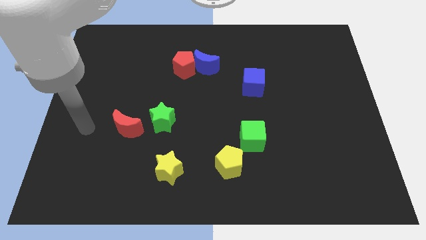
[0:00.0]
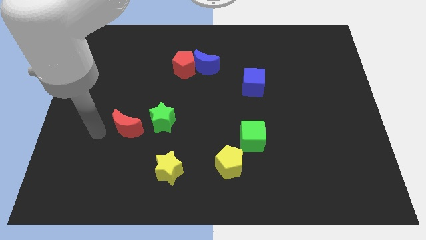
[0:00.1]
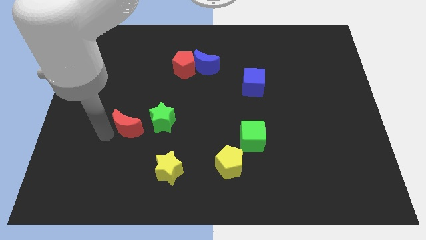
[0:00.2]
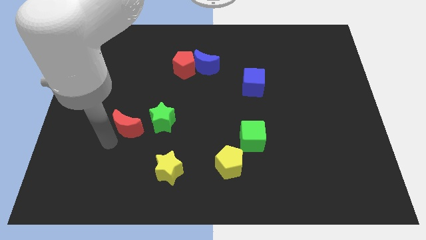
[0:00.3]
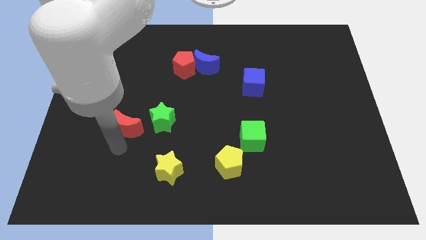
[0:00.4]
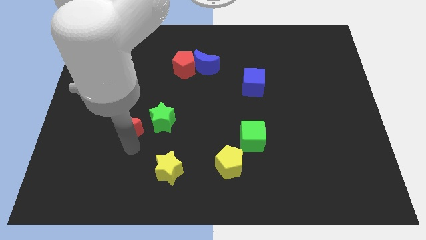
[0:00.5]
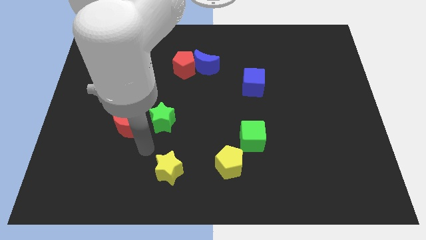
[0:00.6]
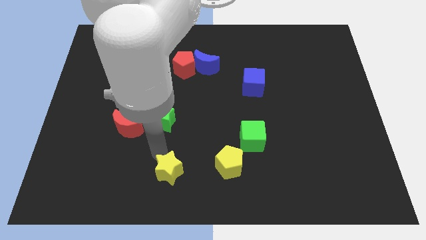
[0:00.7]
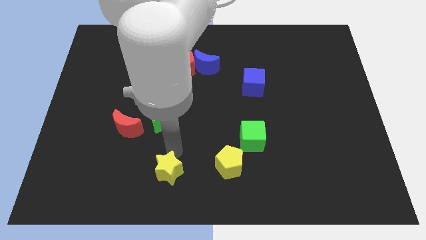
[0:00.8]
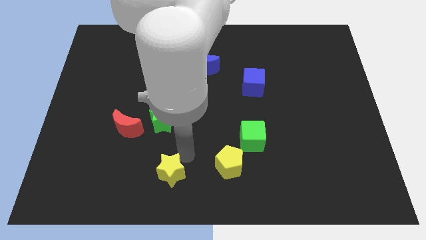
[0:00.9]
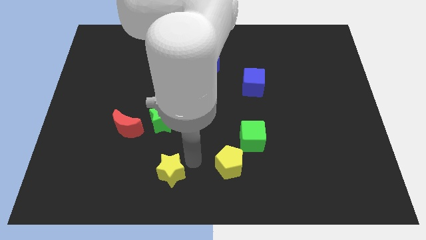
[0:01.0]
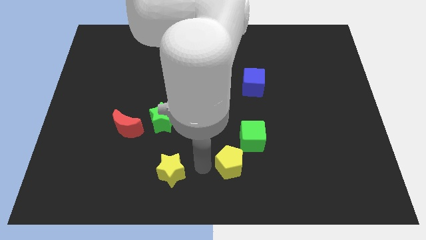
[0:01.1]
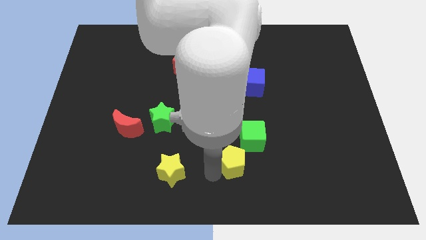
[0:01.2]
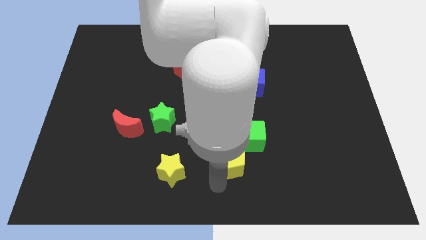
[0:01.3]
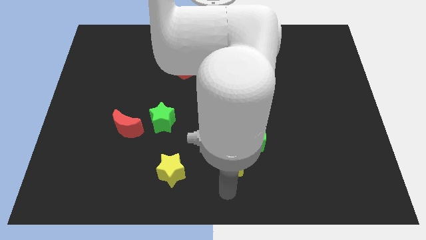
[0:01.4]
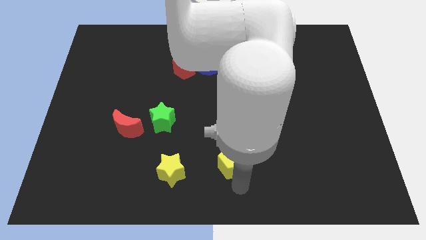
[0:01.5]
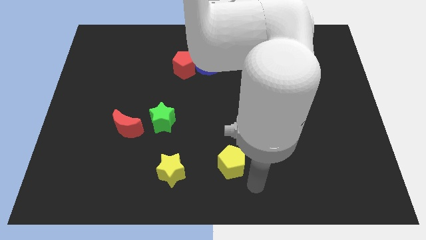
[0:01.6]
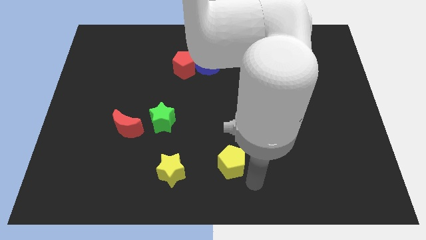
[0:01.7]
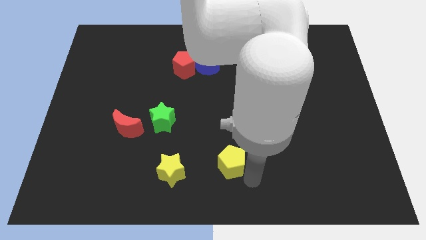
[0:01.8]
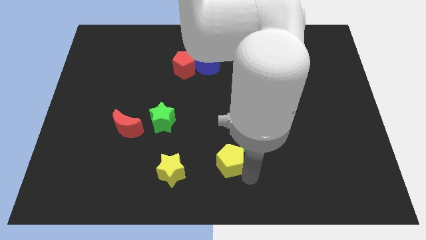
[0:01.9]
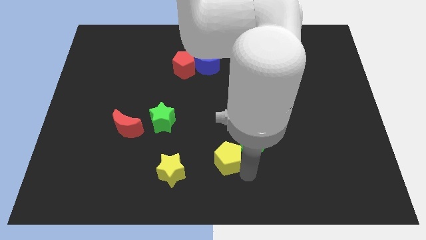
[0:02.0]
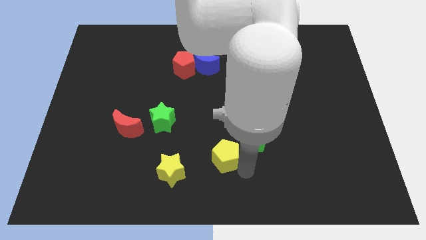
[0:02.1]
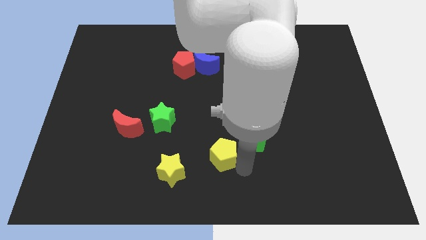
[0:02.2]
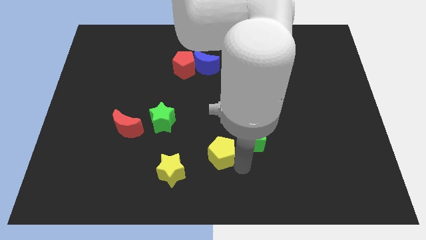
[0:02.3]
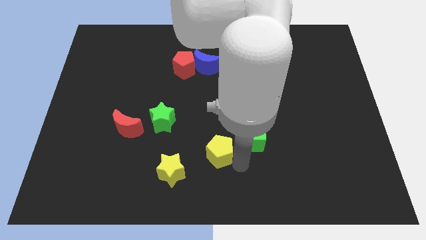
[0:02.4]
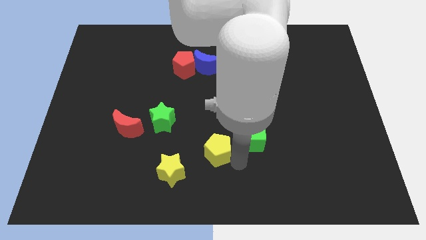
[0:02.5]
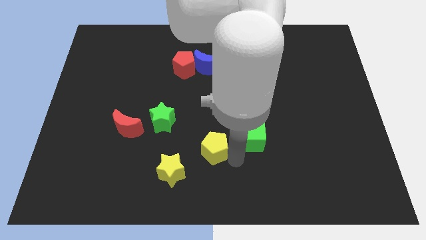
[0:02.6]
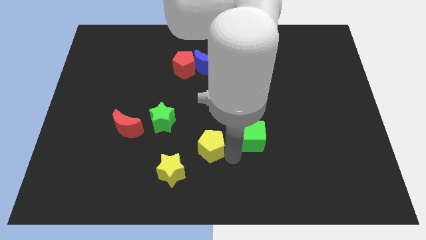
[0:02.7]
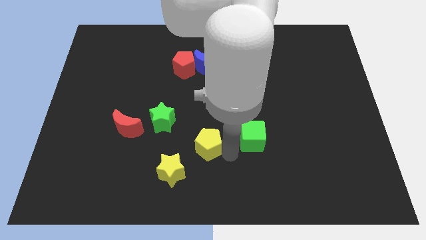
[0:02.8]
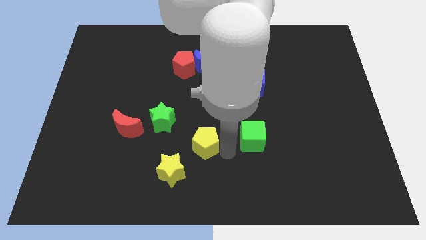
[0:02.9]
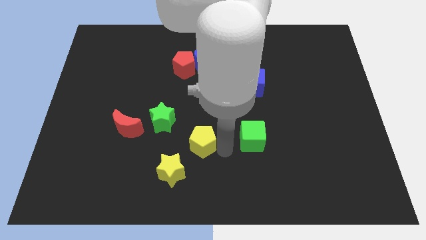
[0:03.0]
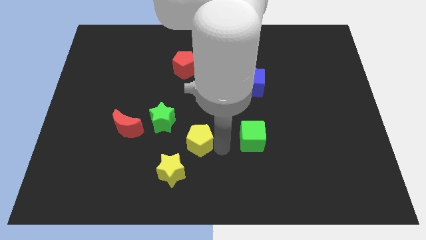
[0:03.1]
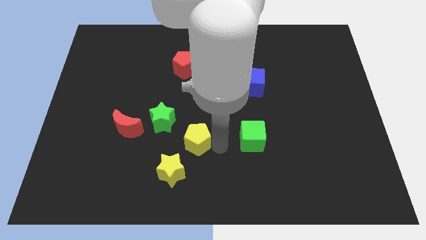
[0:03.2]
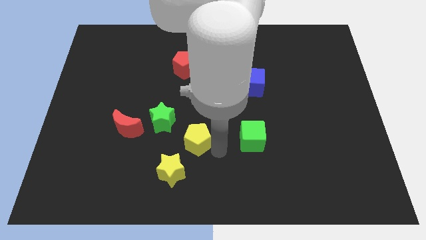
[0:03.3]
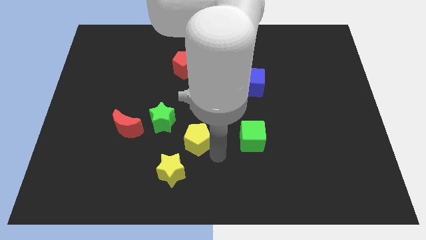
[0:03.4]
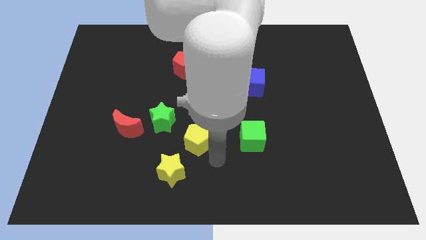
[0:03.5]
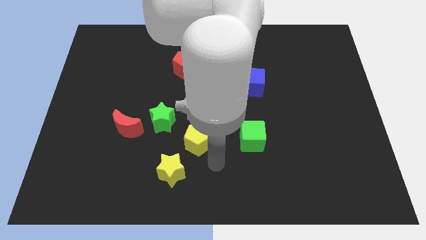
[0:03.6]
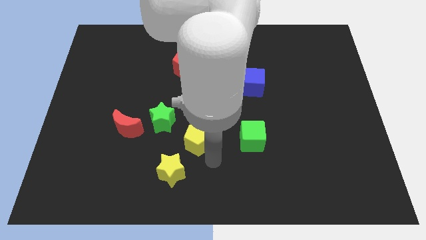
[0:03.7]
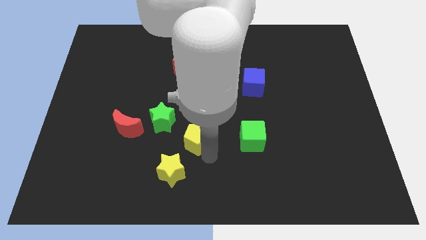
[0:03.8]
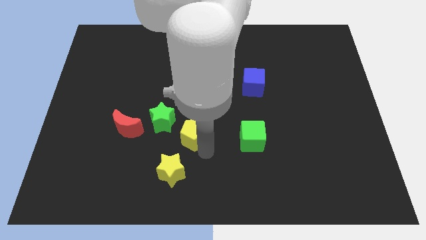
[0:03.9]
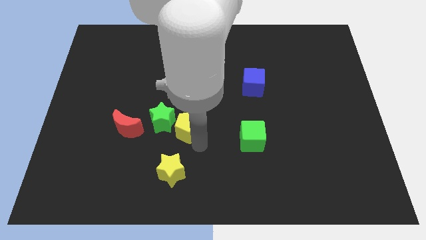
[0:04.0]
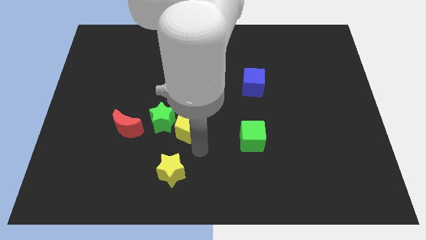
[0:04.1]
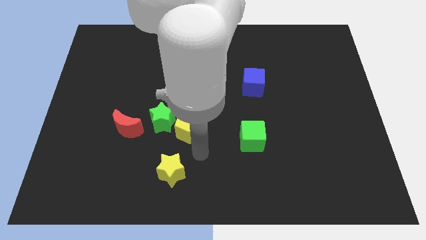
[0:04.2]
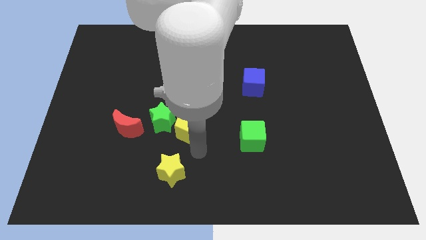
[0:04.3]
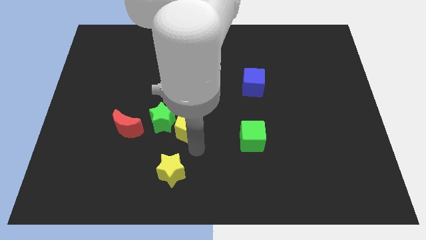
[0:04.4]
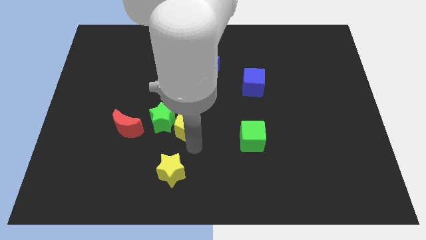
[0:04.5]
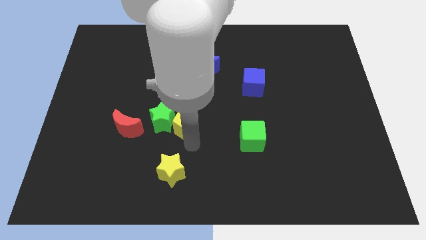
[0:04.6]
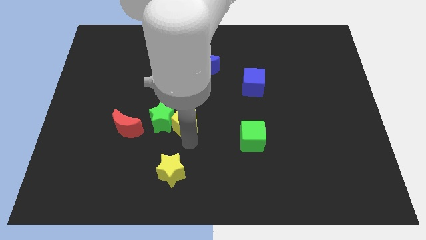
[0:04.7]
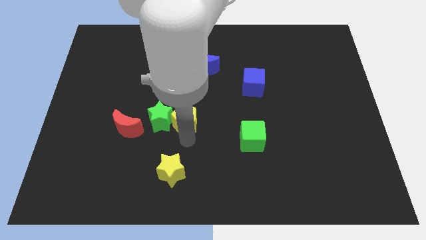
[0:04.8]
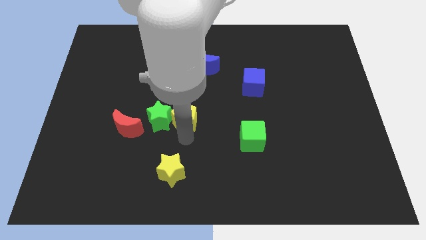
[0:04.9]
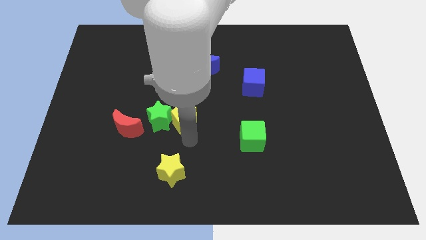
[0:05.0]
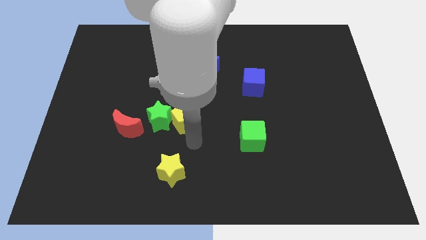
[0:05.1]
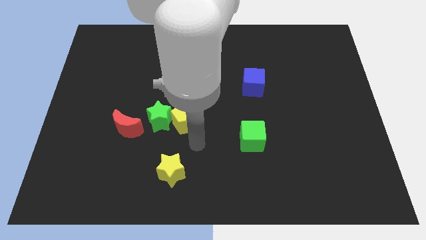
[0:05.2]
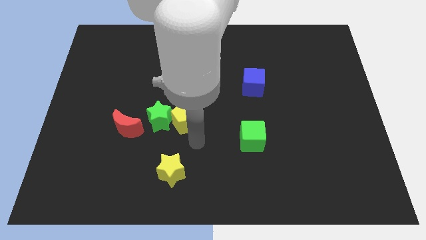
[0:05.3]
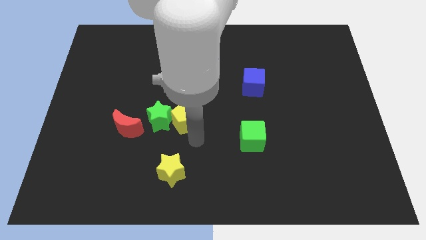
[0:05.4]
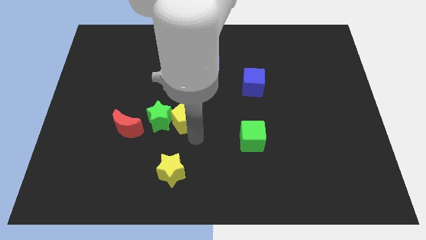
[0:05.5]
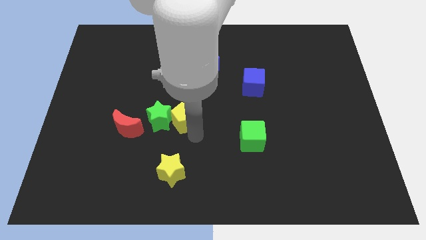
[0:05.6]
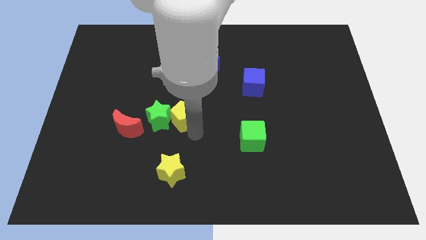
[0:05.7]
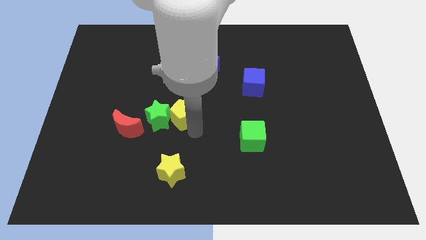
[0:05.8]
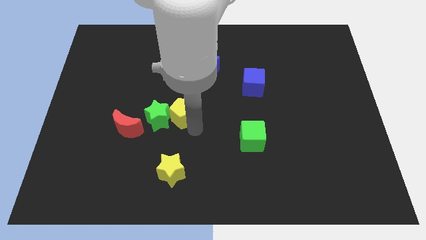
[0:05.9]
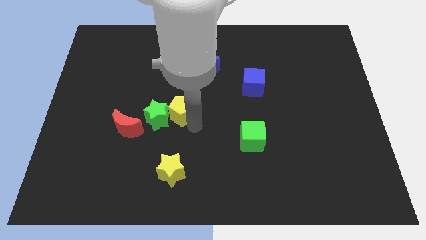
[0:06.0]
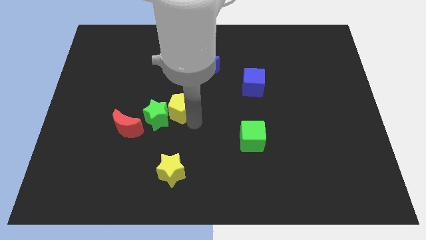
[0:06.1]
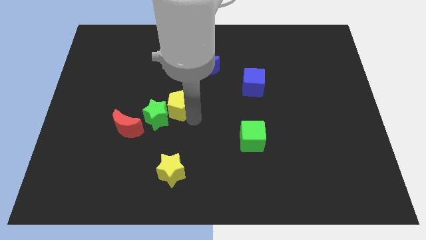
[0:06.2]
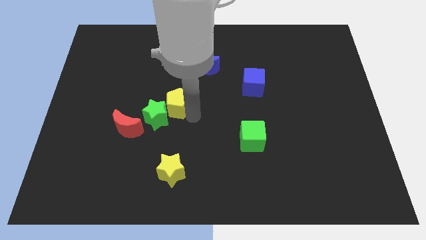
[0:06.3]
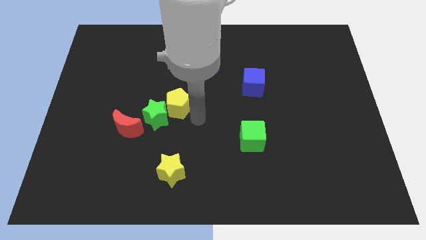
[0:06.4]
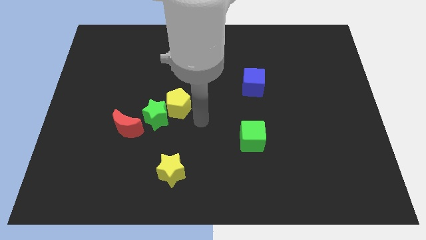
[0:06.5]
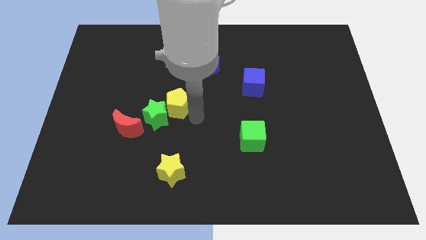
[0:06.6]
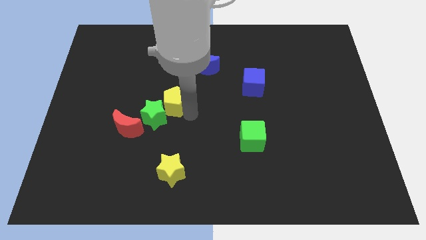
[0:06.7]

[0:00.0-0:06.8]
move the yellow pentagon up and left

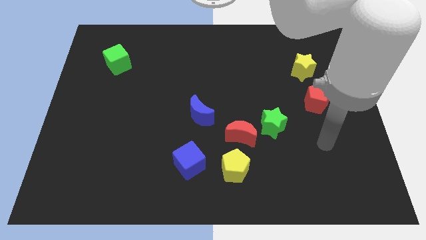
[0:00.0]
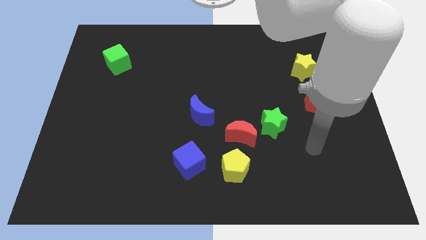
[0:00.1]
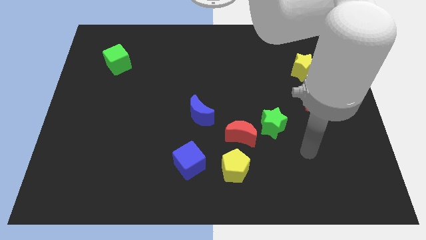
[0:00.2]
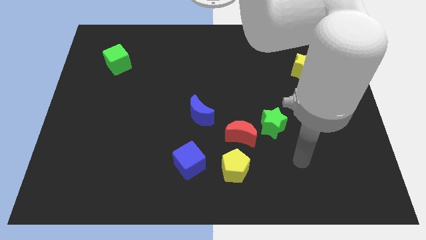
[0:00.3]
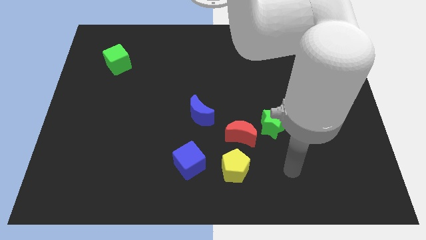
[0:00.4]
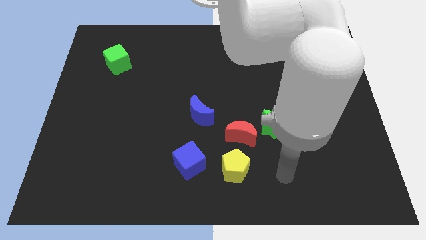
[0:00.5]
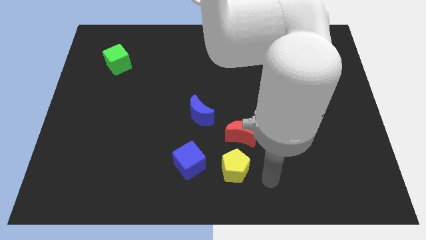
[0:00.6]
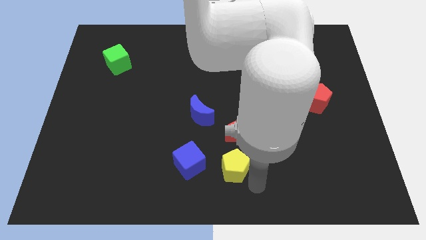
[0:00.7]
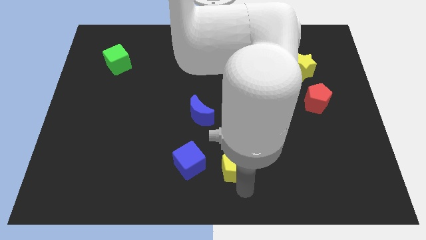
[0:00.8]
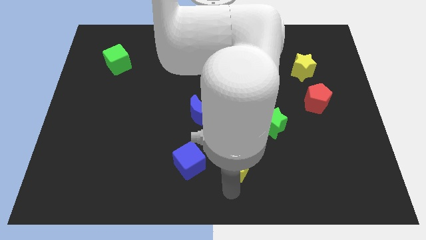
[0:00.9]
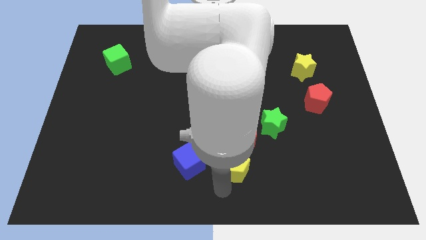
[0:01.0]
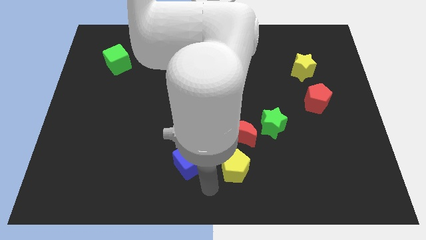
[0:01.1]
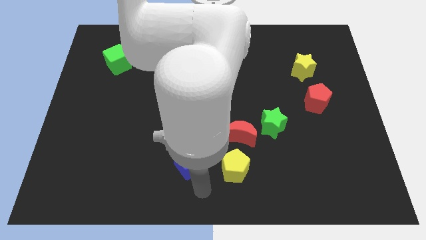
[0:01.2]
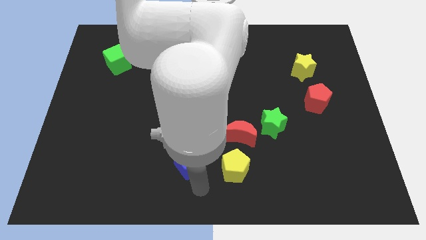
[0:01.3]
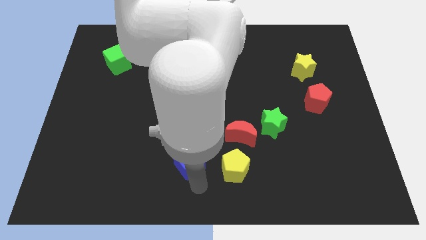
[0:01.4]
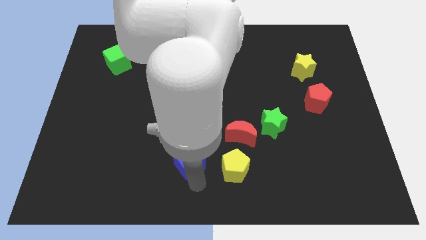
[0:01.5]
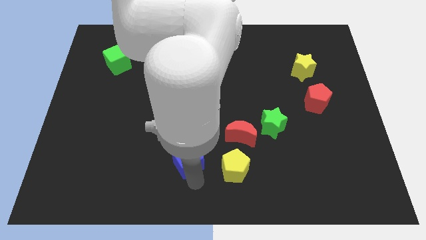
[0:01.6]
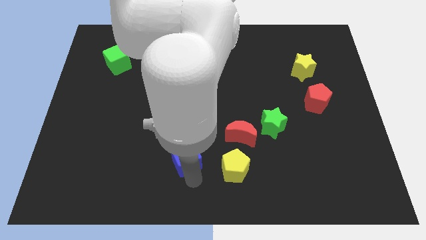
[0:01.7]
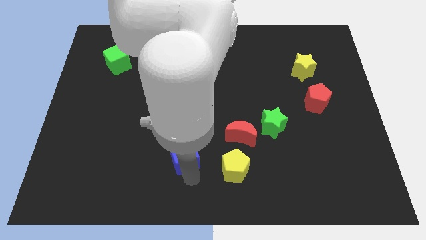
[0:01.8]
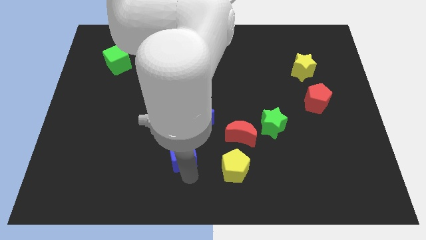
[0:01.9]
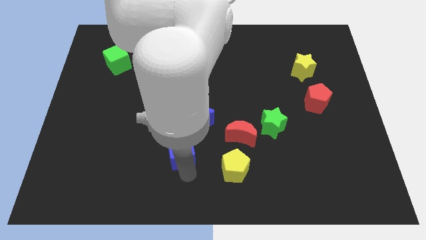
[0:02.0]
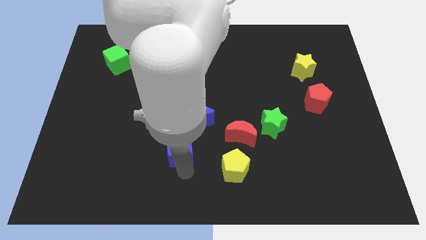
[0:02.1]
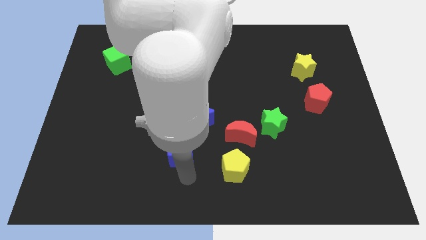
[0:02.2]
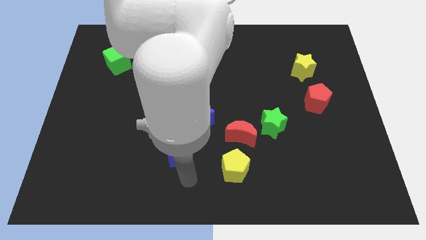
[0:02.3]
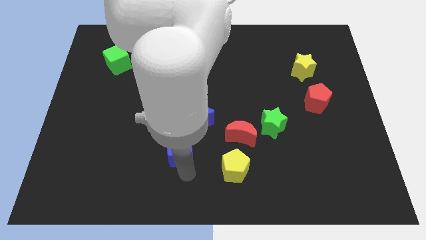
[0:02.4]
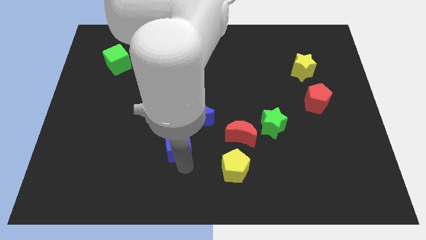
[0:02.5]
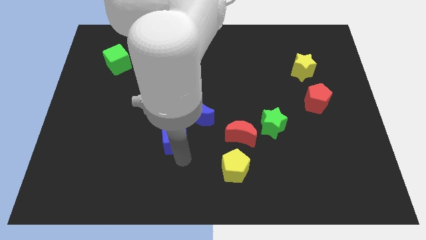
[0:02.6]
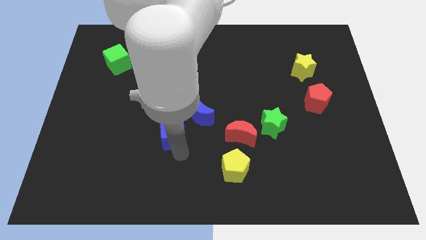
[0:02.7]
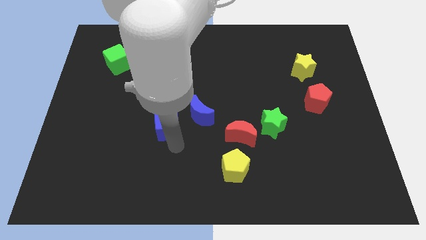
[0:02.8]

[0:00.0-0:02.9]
slightly push the blue cube up
